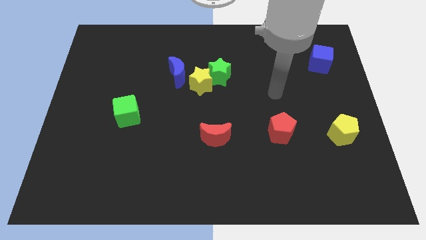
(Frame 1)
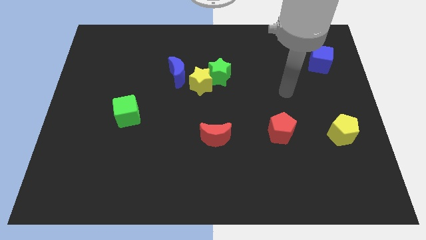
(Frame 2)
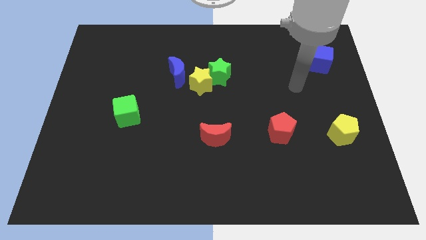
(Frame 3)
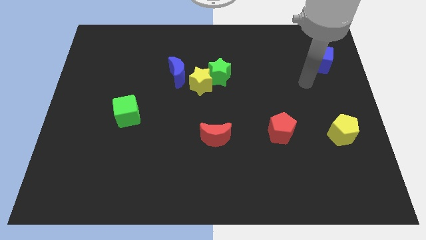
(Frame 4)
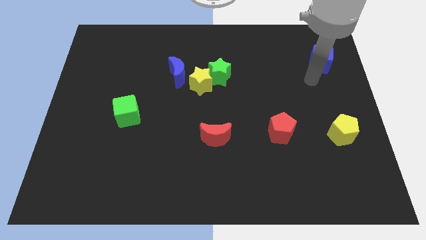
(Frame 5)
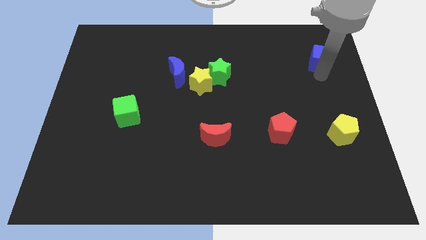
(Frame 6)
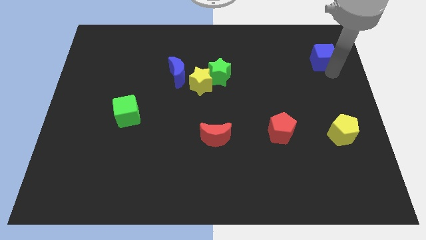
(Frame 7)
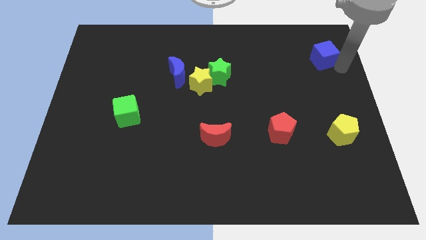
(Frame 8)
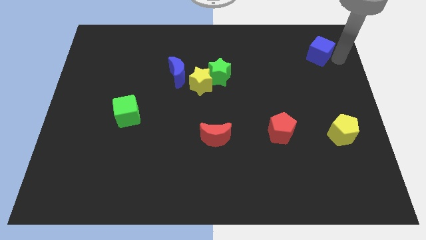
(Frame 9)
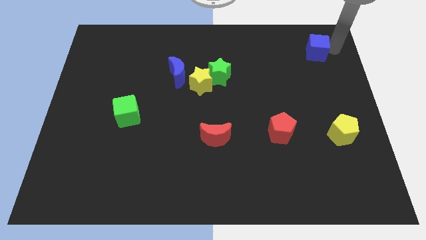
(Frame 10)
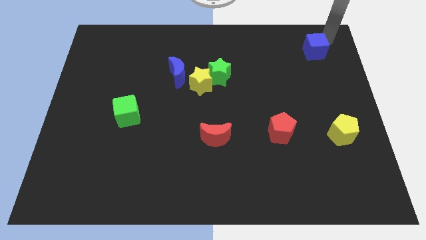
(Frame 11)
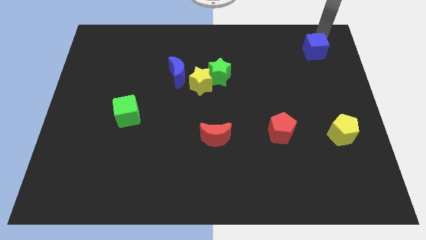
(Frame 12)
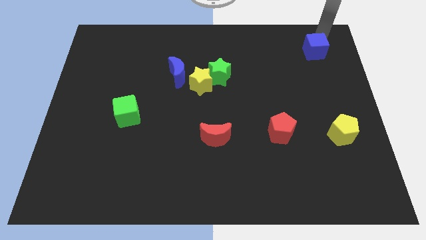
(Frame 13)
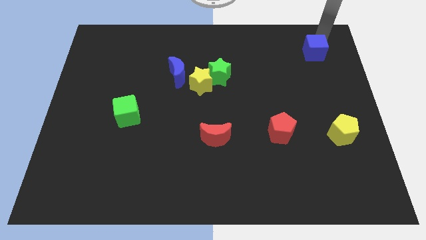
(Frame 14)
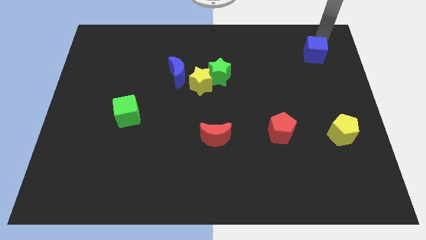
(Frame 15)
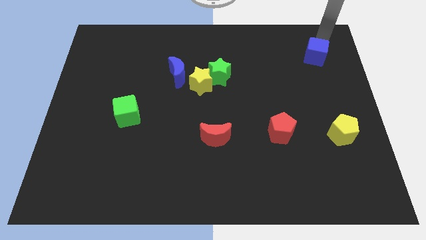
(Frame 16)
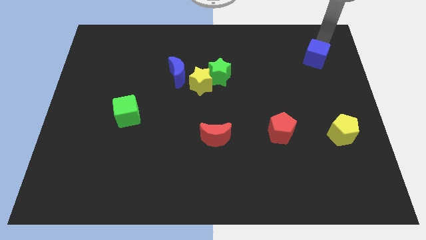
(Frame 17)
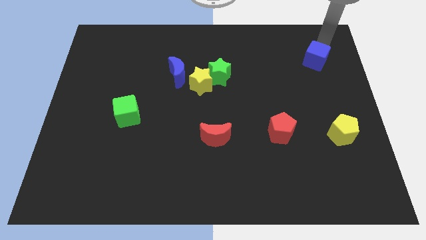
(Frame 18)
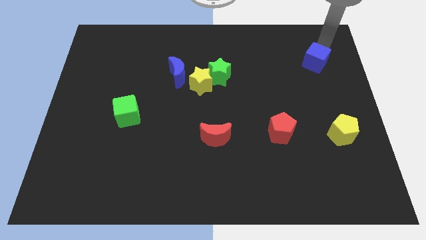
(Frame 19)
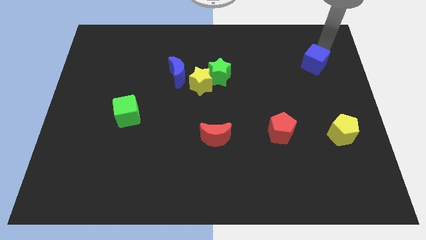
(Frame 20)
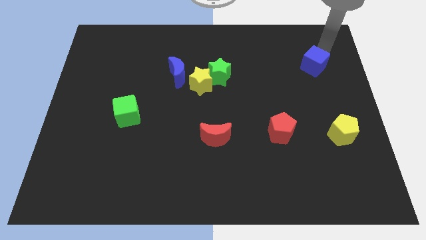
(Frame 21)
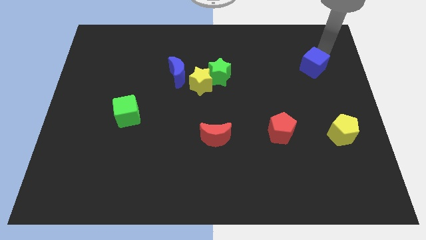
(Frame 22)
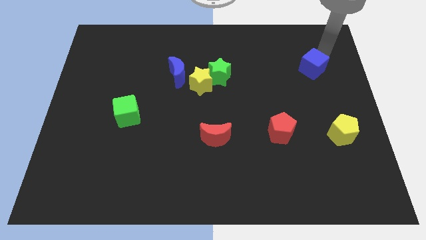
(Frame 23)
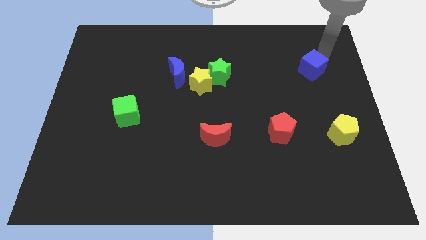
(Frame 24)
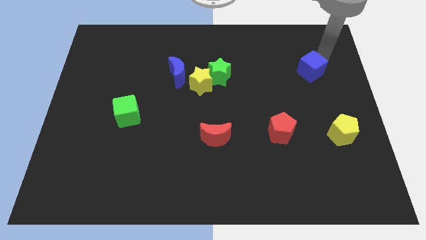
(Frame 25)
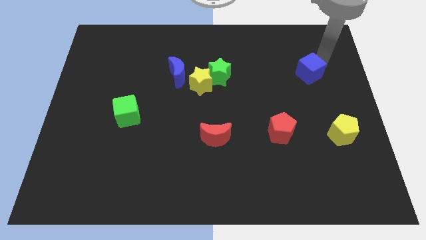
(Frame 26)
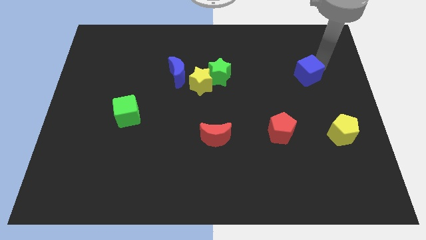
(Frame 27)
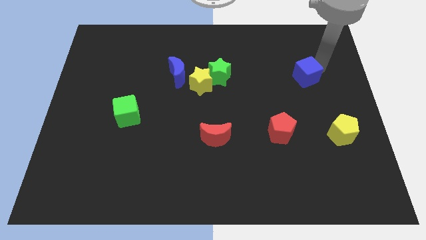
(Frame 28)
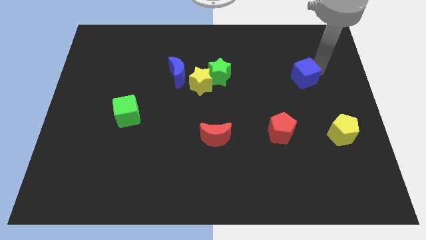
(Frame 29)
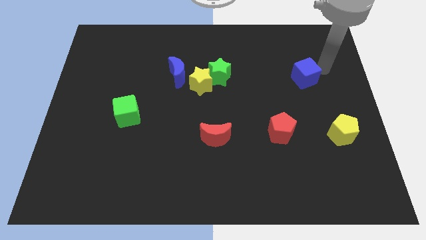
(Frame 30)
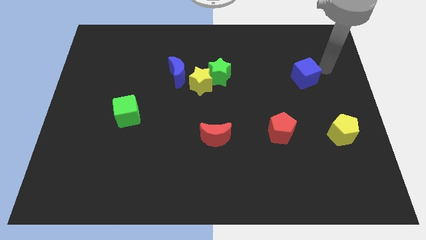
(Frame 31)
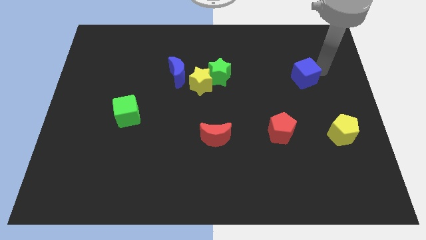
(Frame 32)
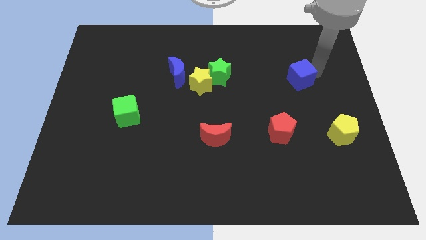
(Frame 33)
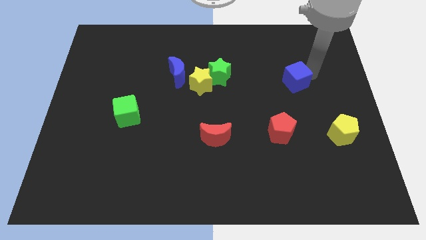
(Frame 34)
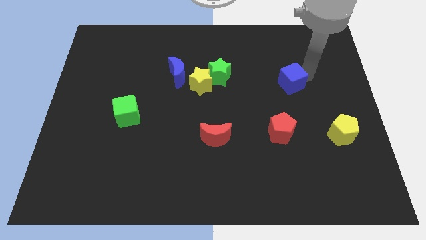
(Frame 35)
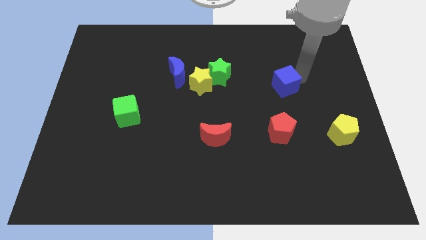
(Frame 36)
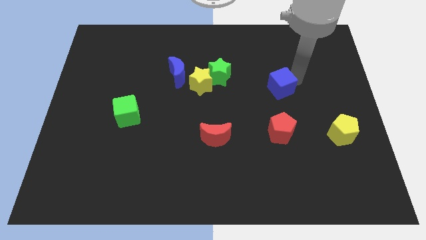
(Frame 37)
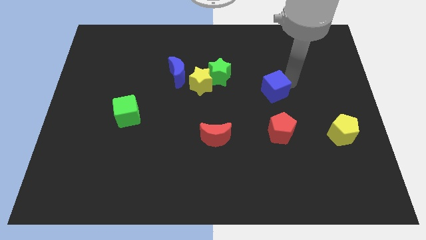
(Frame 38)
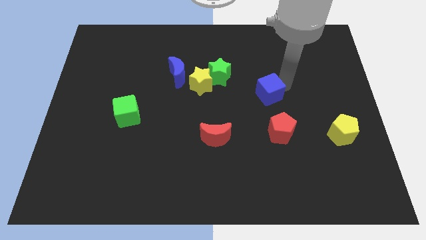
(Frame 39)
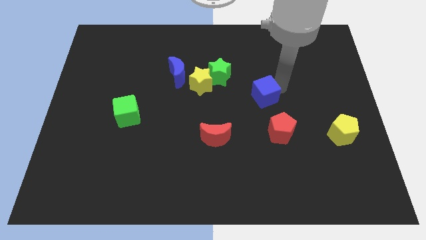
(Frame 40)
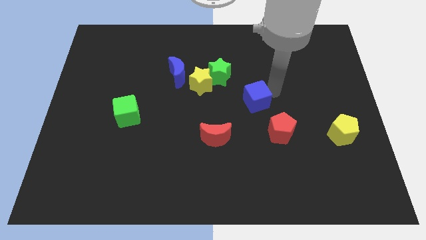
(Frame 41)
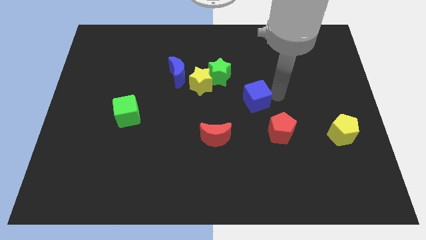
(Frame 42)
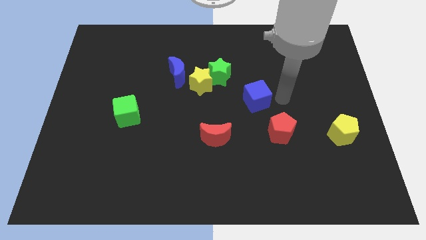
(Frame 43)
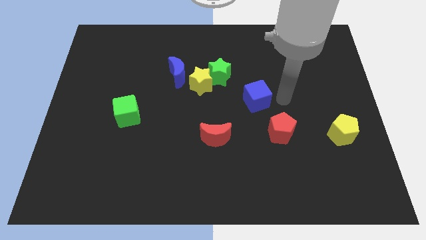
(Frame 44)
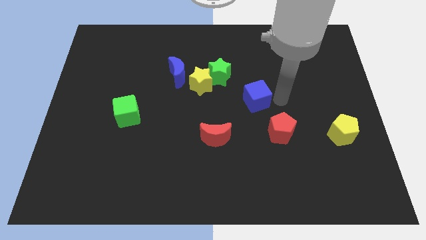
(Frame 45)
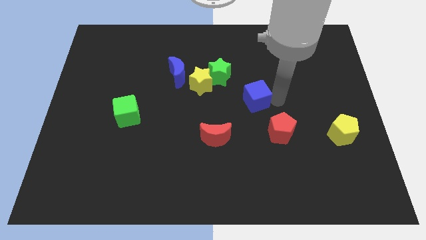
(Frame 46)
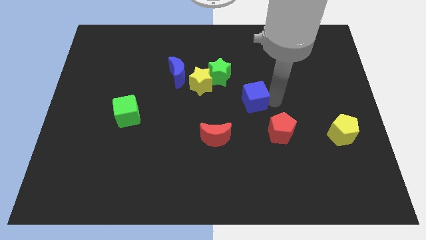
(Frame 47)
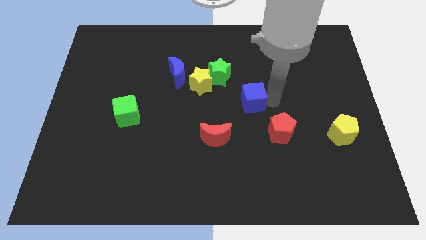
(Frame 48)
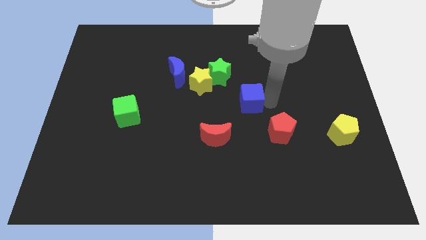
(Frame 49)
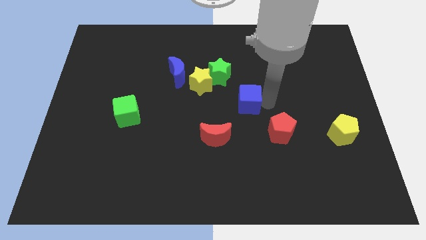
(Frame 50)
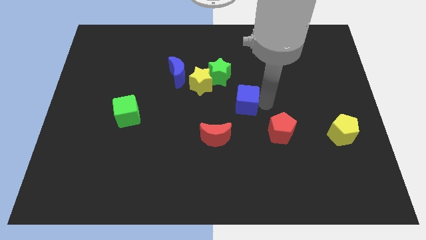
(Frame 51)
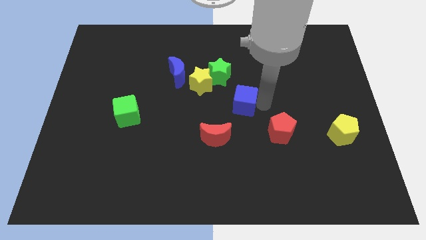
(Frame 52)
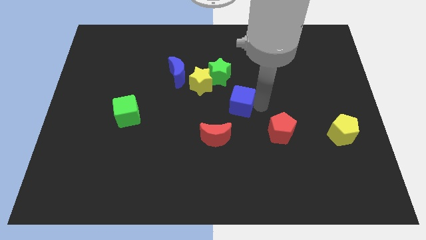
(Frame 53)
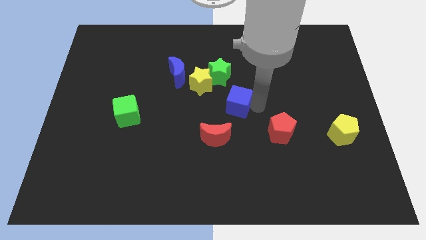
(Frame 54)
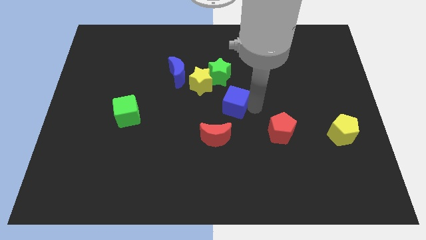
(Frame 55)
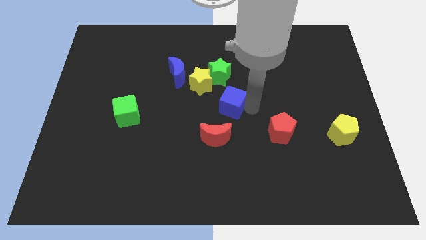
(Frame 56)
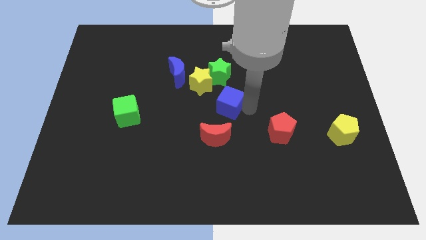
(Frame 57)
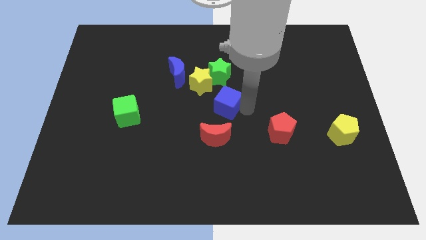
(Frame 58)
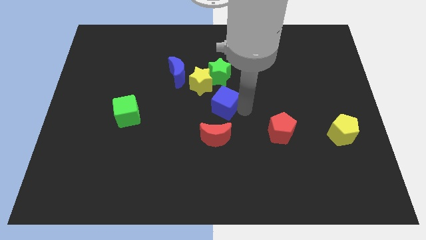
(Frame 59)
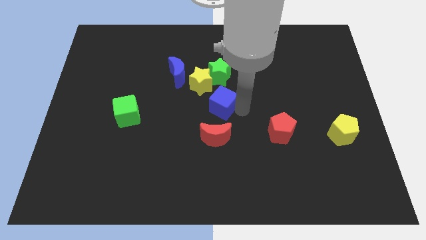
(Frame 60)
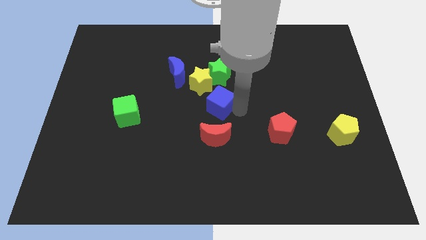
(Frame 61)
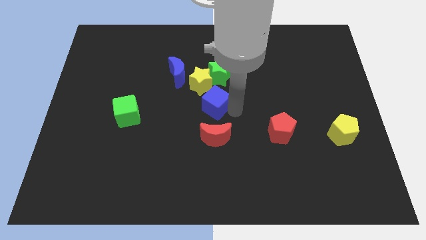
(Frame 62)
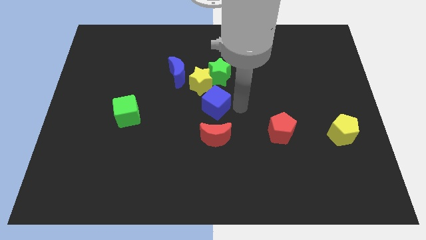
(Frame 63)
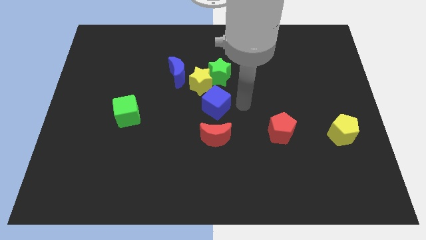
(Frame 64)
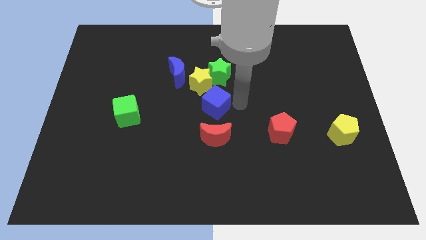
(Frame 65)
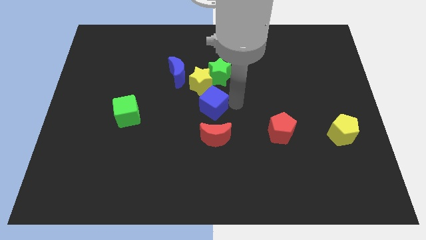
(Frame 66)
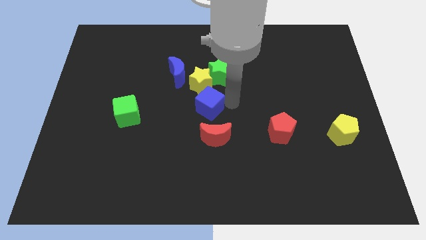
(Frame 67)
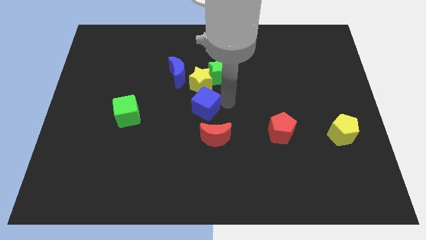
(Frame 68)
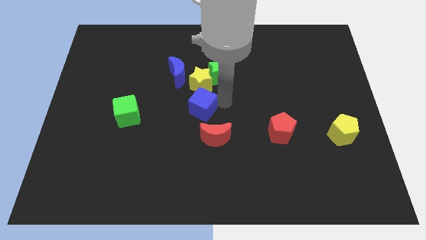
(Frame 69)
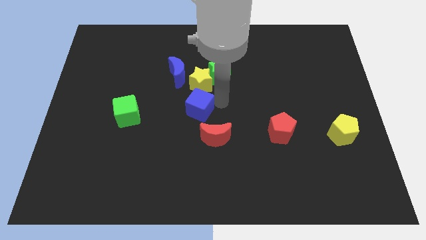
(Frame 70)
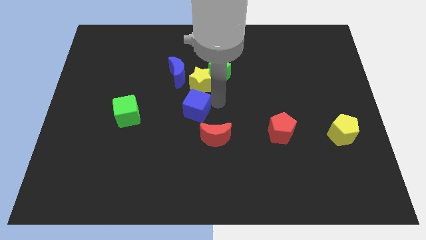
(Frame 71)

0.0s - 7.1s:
put the blue cube below the blue moon

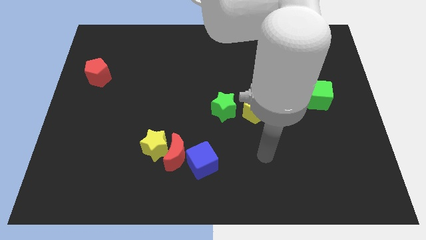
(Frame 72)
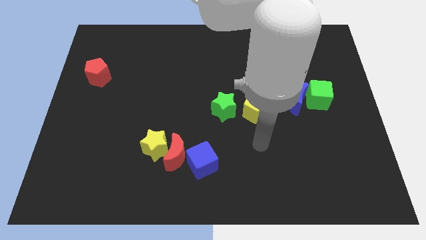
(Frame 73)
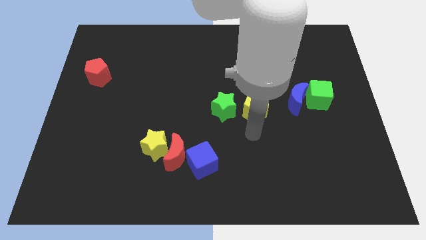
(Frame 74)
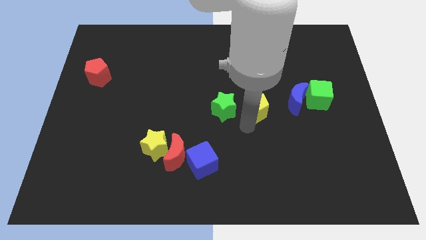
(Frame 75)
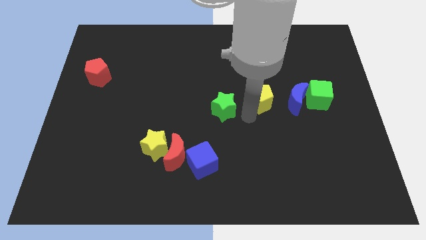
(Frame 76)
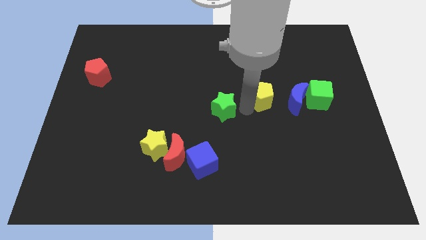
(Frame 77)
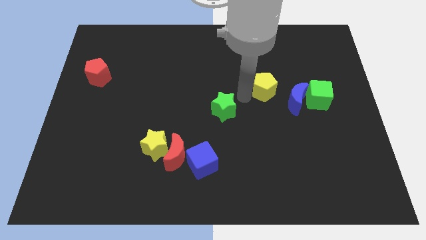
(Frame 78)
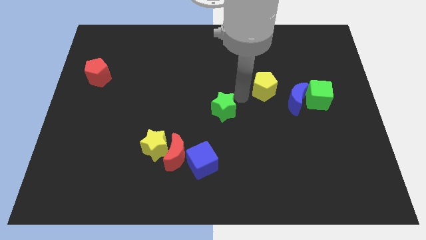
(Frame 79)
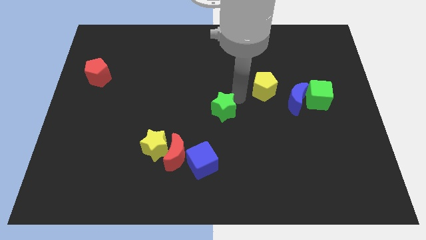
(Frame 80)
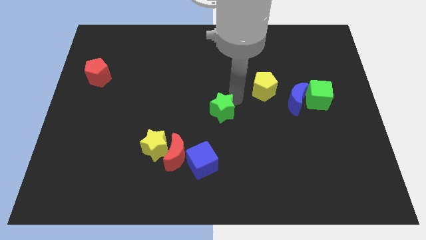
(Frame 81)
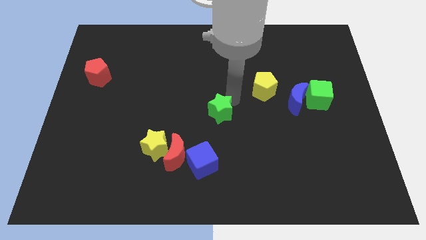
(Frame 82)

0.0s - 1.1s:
move the green star above the blue cube
